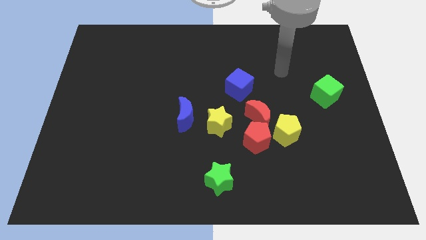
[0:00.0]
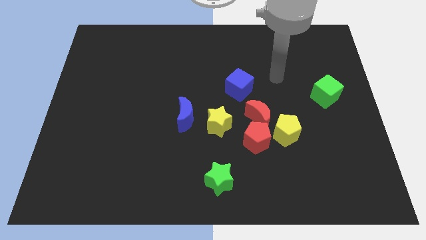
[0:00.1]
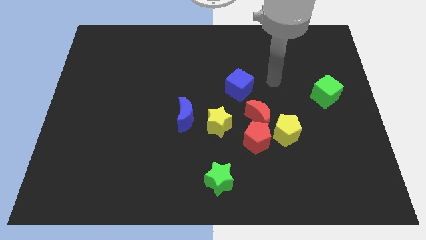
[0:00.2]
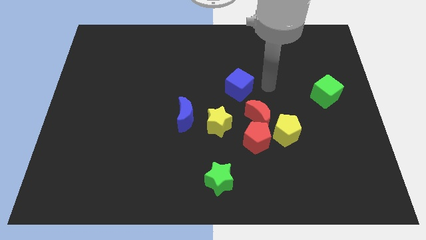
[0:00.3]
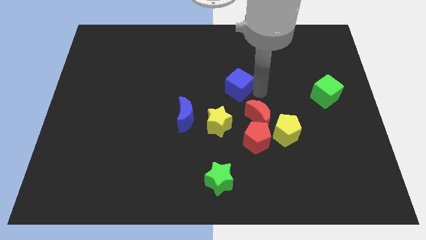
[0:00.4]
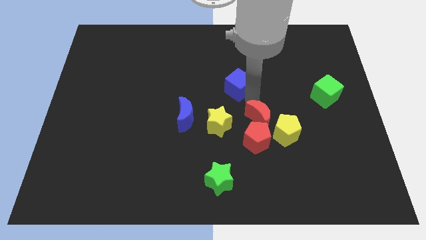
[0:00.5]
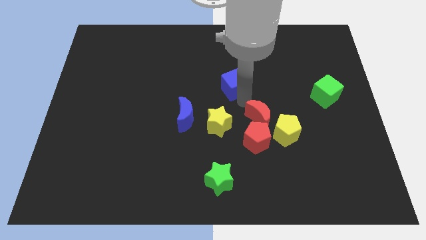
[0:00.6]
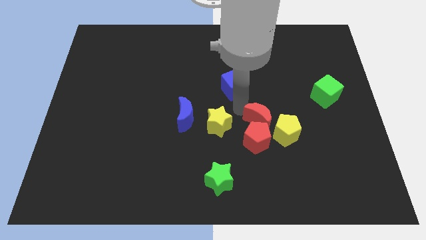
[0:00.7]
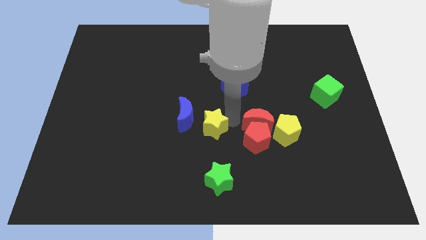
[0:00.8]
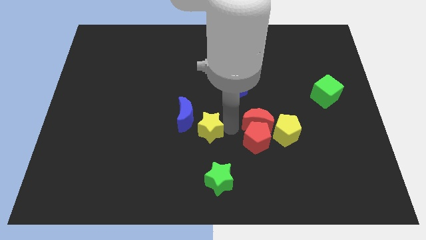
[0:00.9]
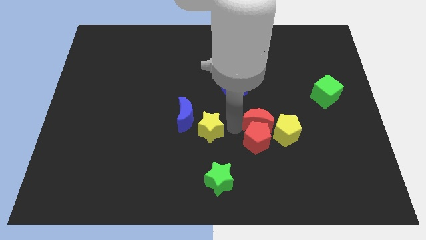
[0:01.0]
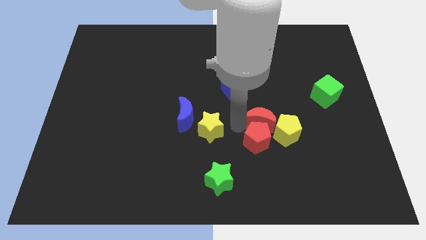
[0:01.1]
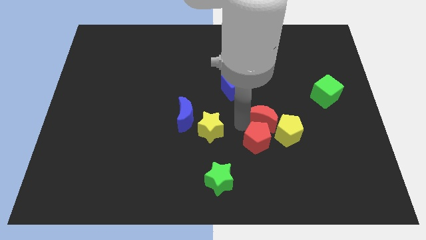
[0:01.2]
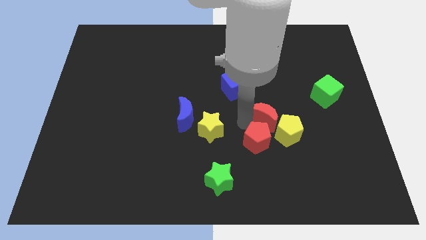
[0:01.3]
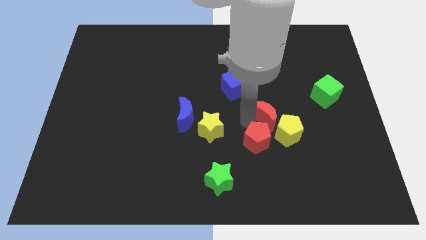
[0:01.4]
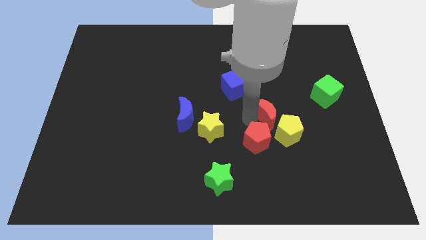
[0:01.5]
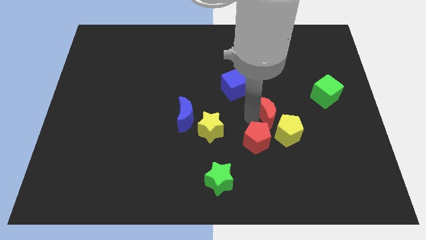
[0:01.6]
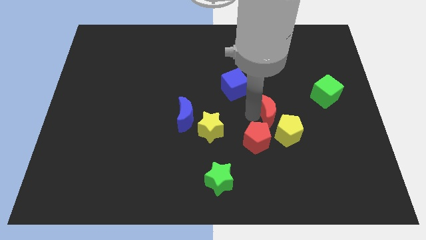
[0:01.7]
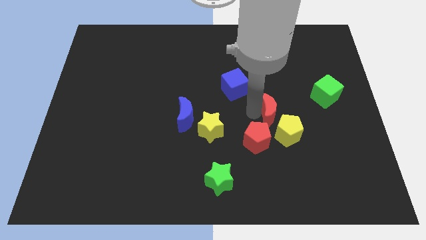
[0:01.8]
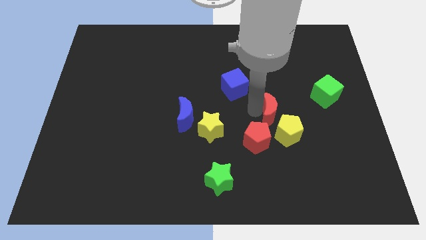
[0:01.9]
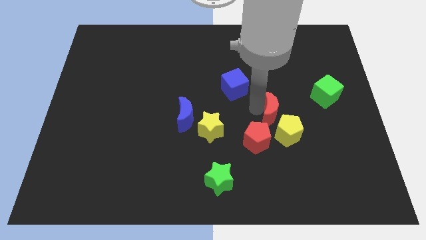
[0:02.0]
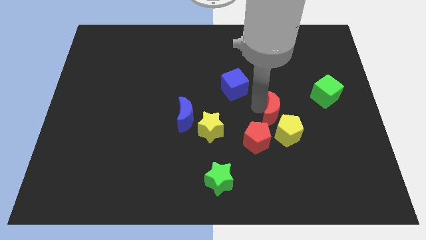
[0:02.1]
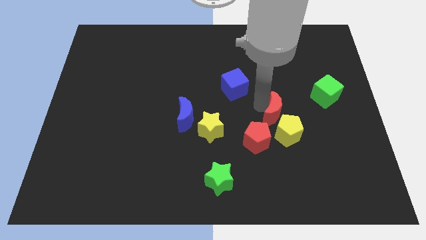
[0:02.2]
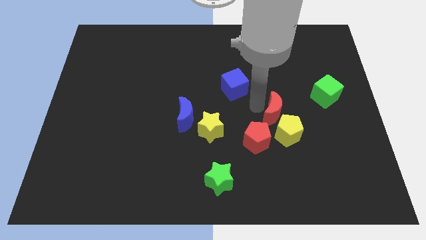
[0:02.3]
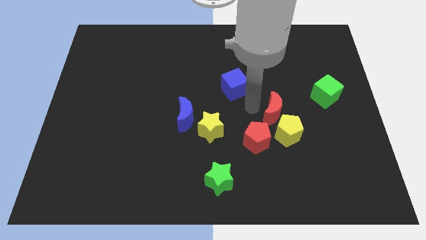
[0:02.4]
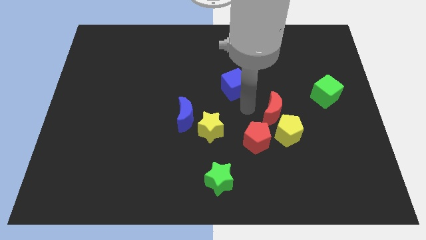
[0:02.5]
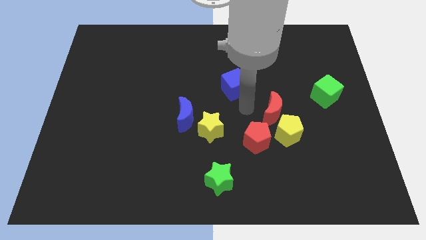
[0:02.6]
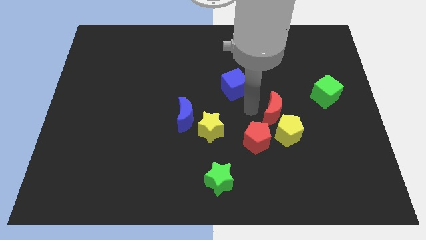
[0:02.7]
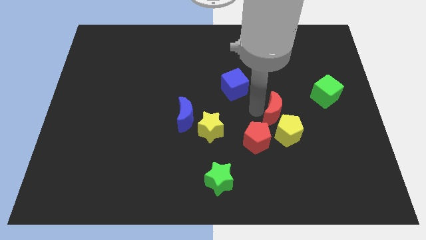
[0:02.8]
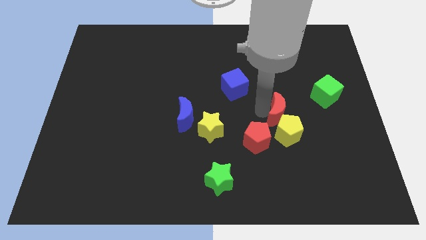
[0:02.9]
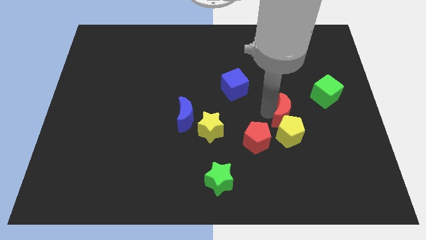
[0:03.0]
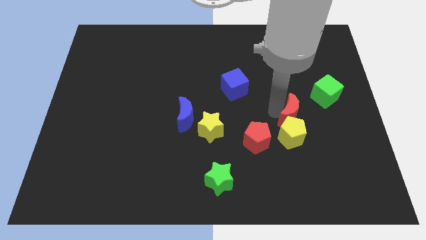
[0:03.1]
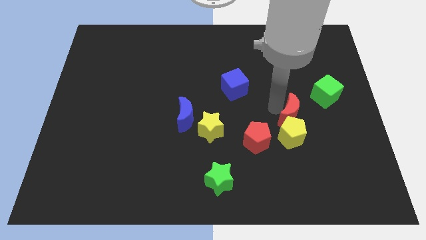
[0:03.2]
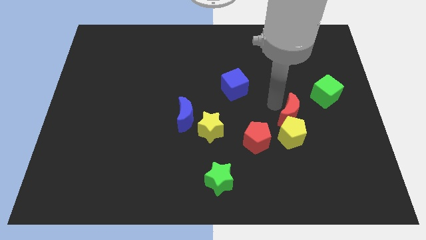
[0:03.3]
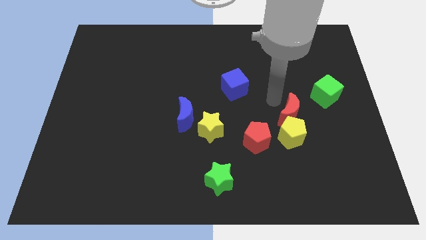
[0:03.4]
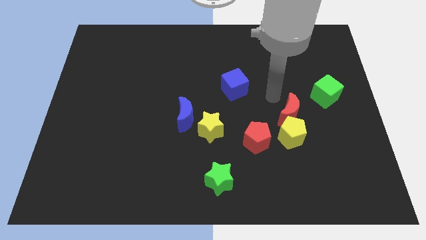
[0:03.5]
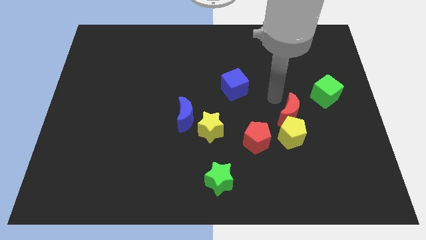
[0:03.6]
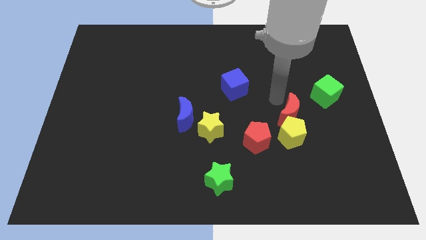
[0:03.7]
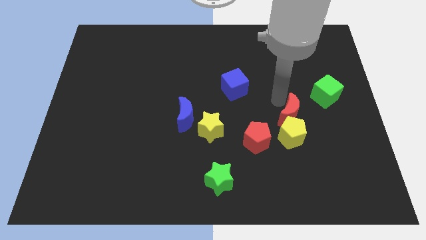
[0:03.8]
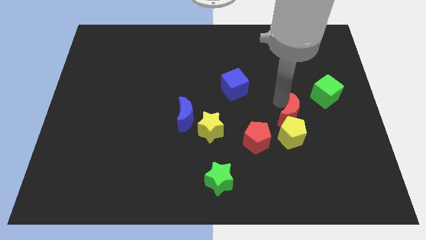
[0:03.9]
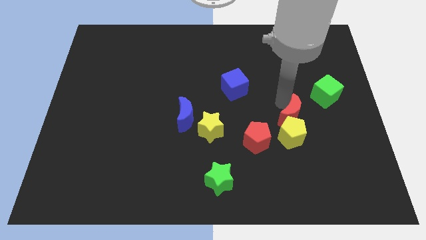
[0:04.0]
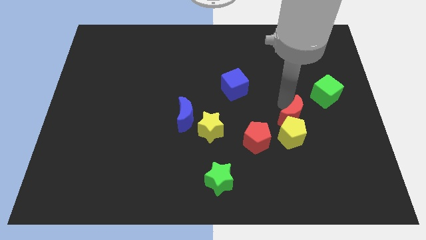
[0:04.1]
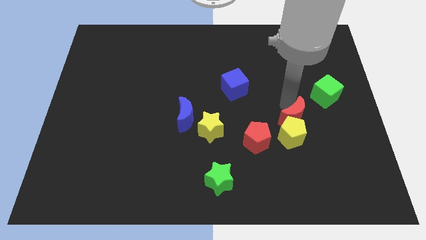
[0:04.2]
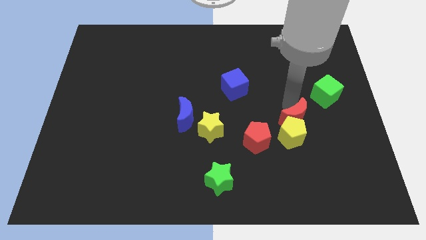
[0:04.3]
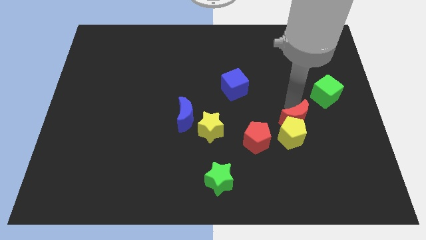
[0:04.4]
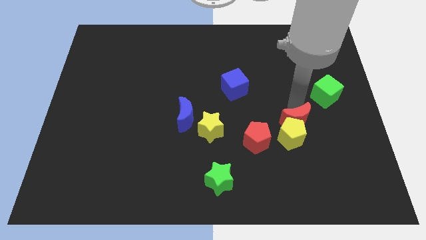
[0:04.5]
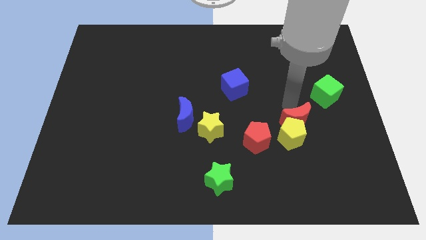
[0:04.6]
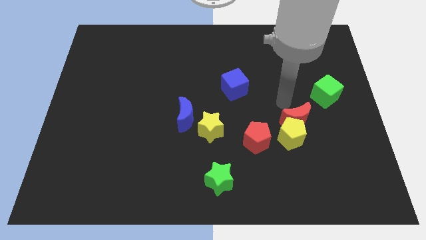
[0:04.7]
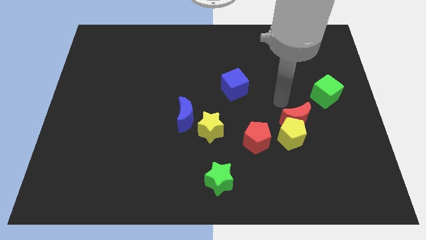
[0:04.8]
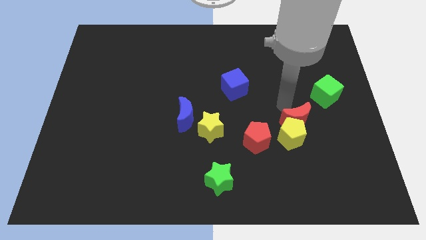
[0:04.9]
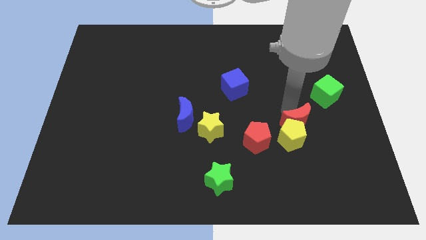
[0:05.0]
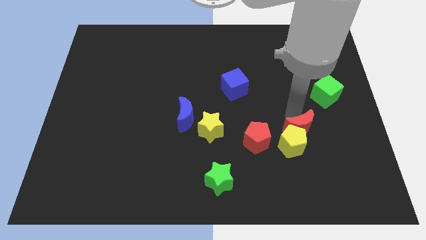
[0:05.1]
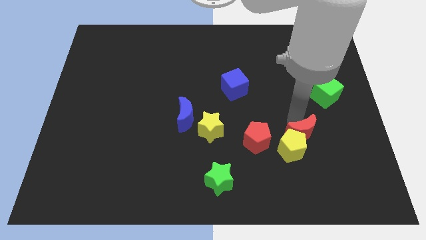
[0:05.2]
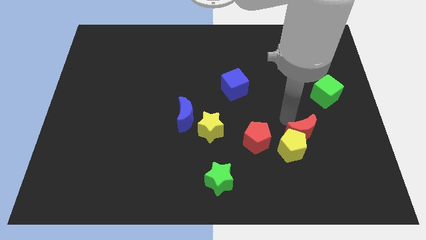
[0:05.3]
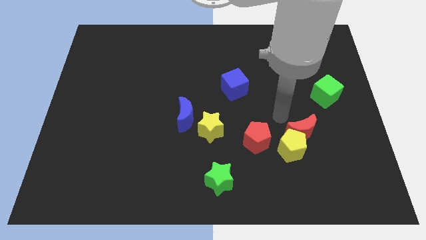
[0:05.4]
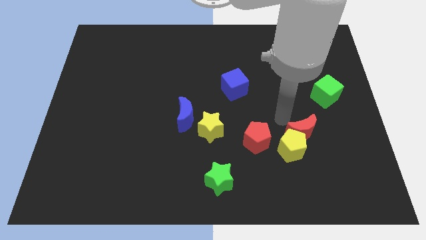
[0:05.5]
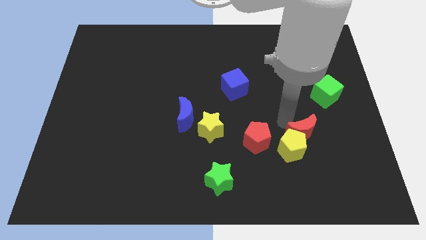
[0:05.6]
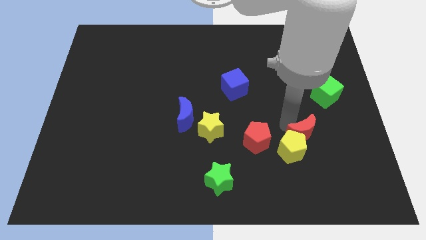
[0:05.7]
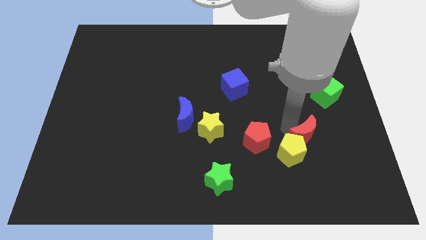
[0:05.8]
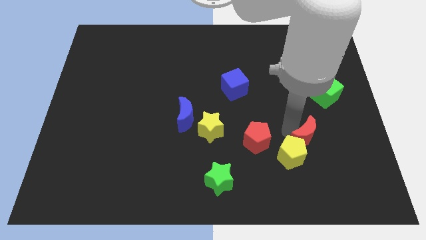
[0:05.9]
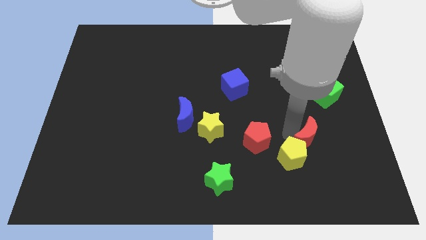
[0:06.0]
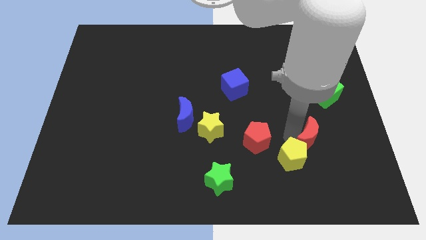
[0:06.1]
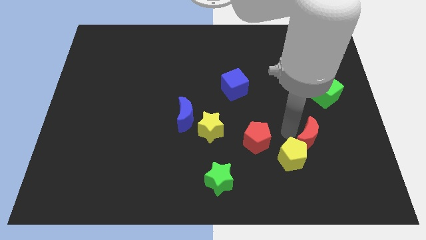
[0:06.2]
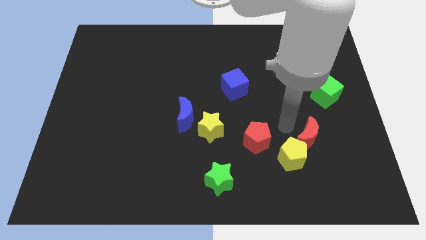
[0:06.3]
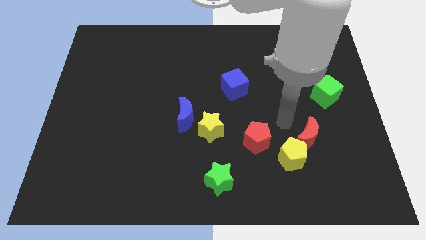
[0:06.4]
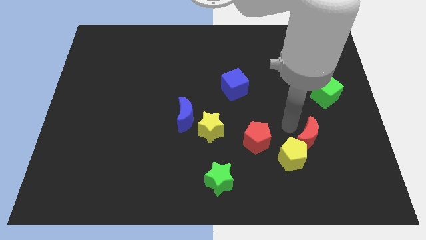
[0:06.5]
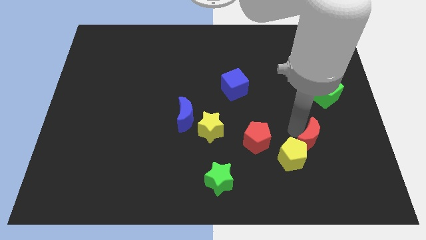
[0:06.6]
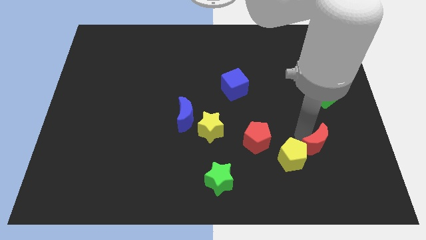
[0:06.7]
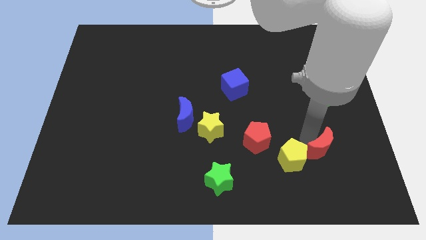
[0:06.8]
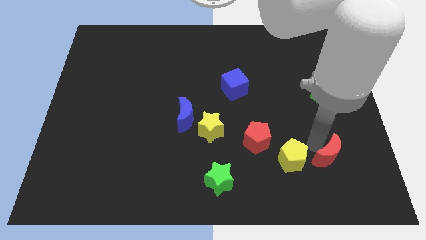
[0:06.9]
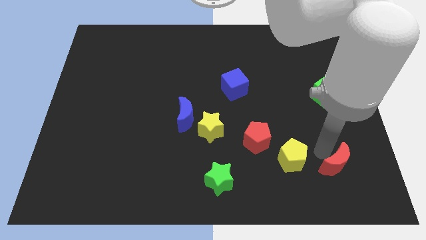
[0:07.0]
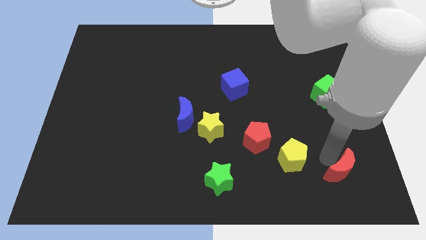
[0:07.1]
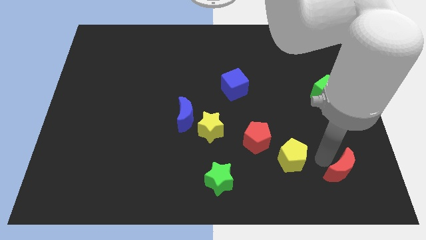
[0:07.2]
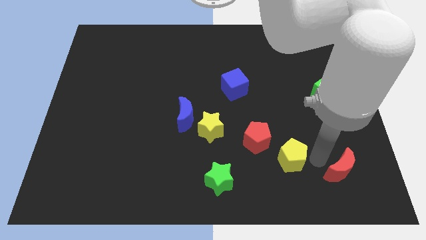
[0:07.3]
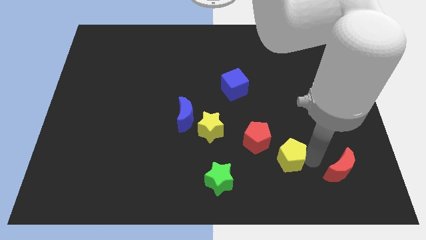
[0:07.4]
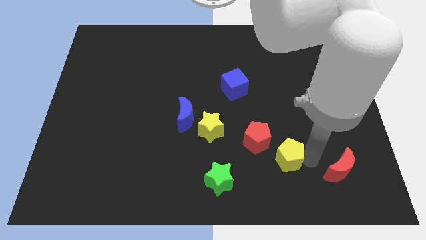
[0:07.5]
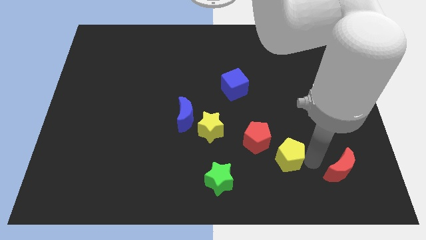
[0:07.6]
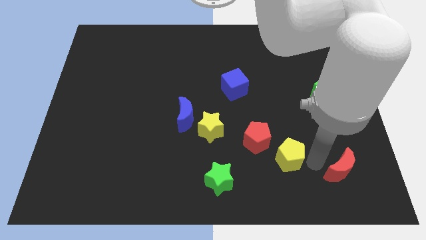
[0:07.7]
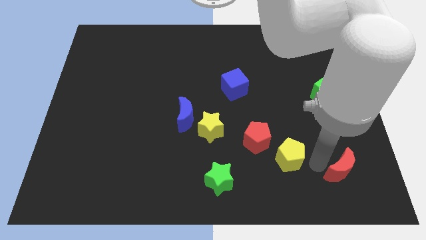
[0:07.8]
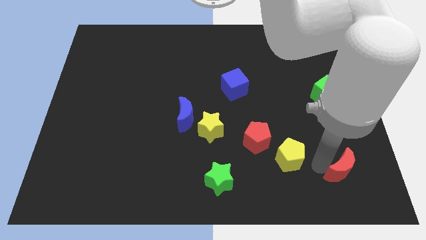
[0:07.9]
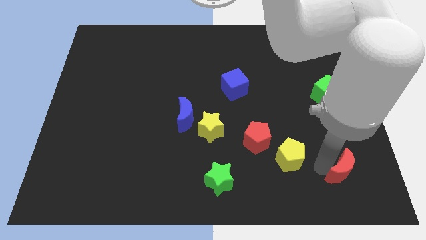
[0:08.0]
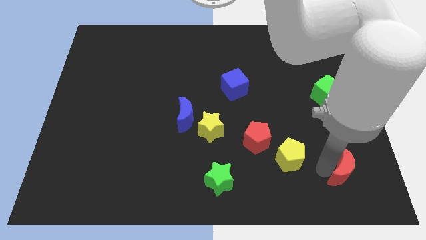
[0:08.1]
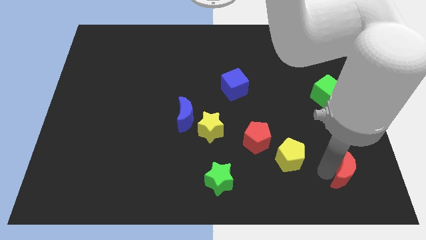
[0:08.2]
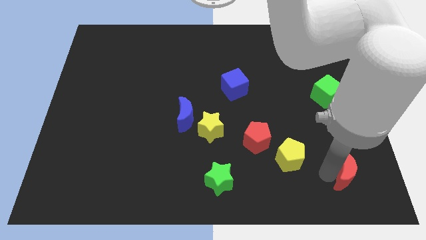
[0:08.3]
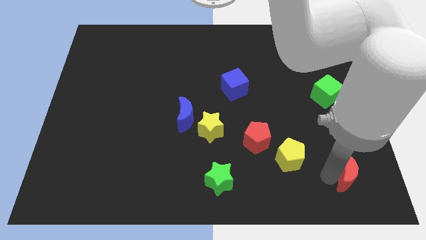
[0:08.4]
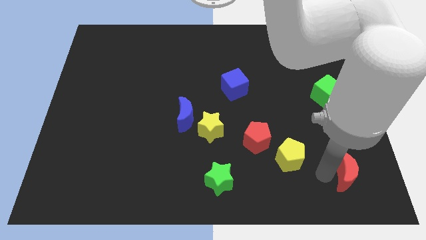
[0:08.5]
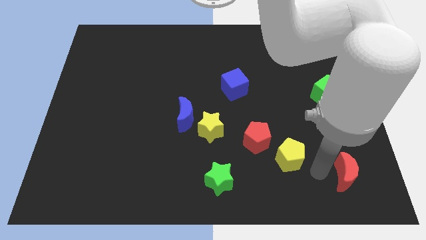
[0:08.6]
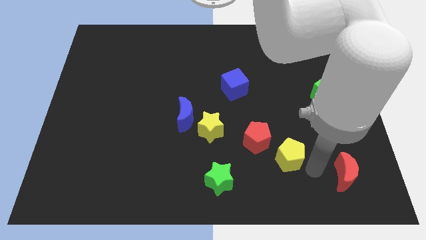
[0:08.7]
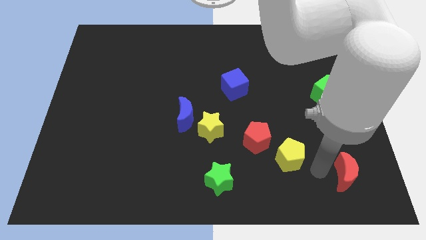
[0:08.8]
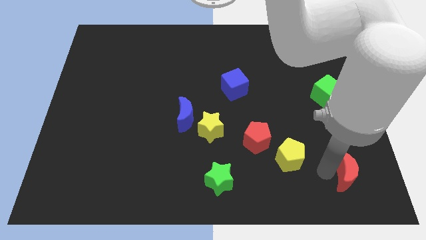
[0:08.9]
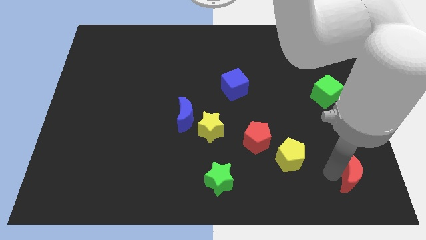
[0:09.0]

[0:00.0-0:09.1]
move the red moon to the bottom right of the board
